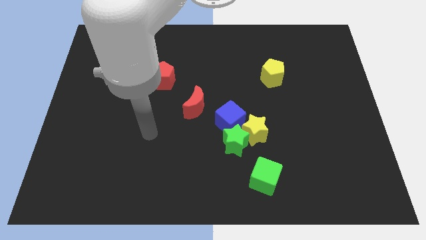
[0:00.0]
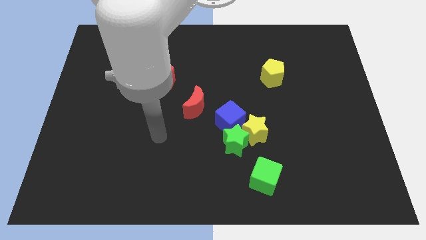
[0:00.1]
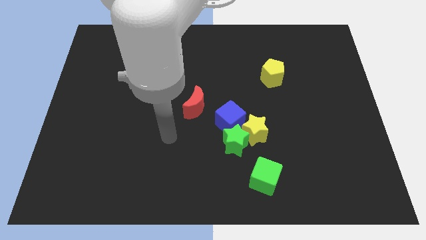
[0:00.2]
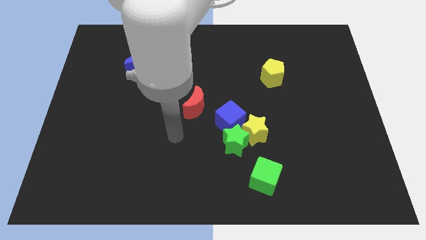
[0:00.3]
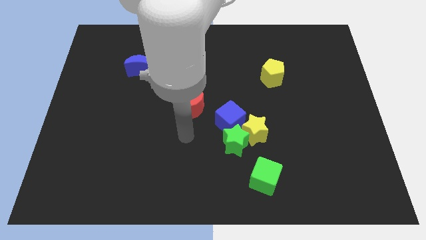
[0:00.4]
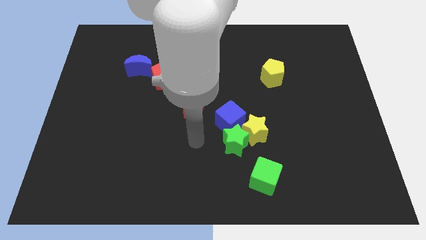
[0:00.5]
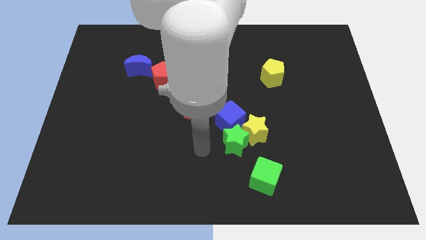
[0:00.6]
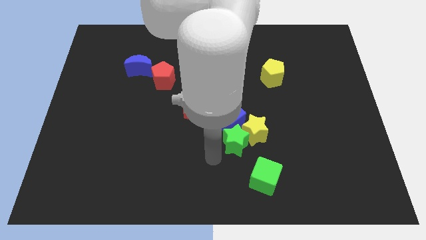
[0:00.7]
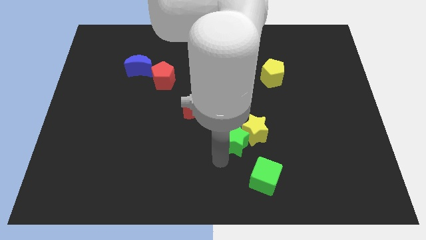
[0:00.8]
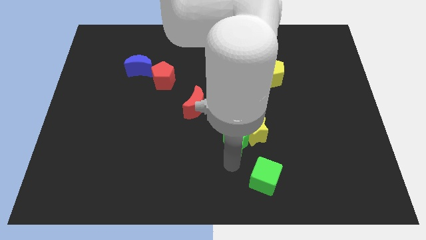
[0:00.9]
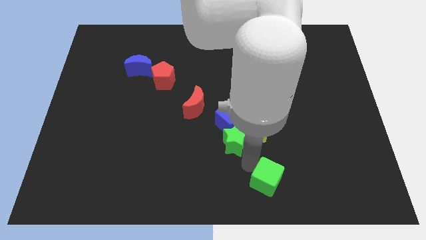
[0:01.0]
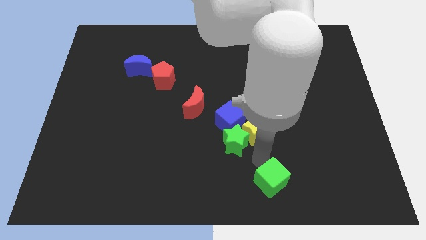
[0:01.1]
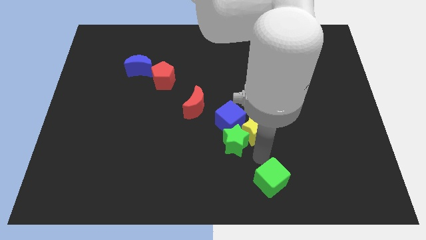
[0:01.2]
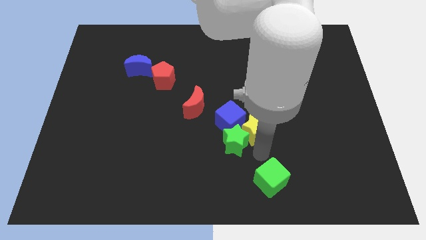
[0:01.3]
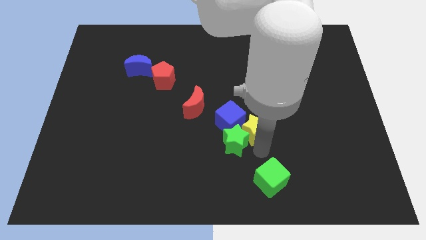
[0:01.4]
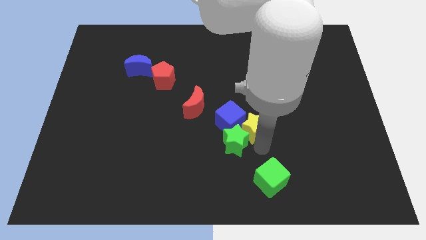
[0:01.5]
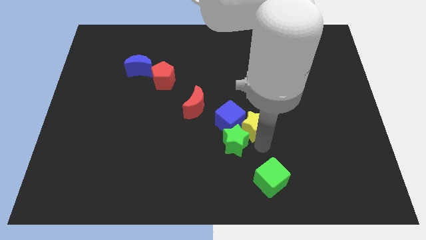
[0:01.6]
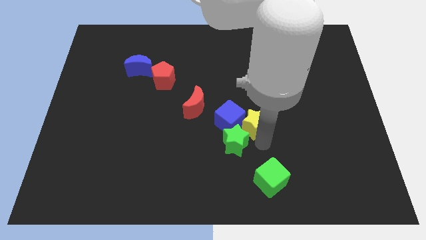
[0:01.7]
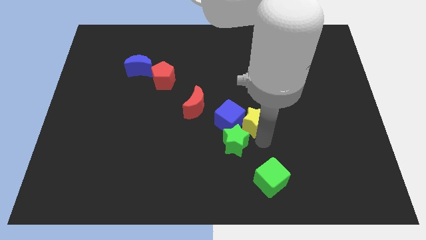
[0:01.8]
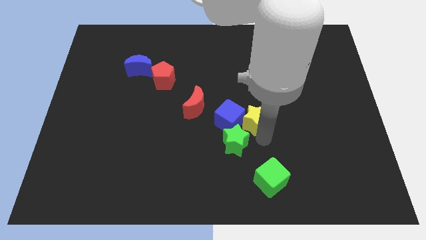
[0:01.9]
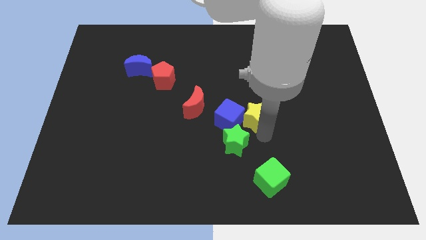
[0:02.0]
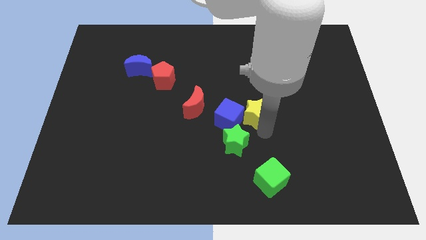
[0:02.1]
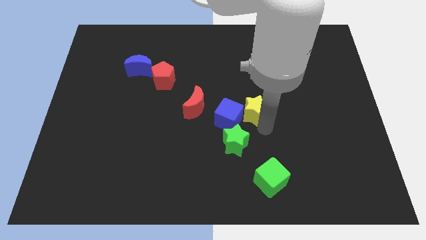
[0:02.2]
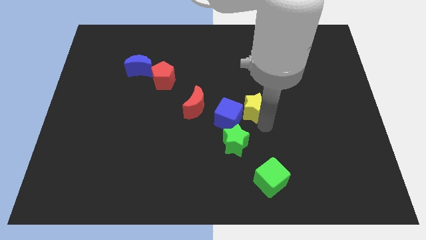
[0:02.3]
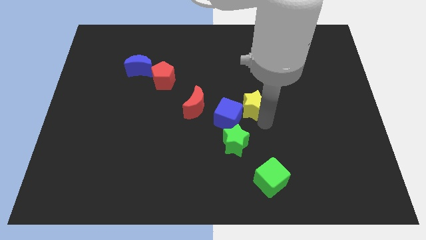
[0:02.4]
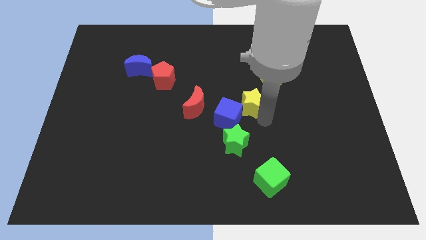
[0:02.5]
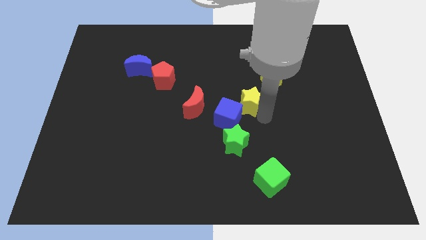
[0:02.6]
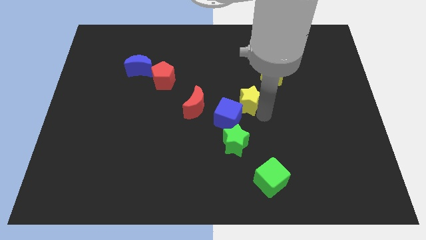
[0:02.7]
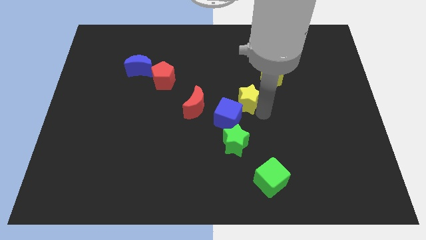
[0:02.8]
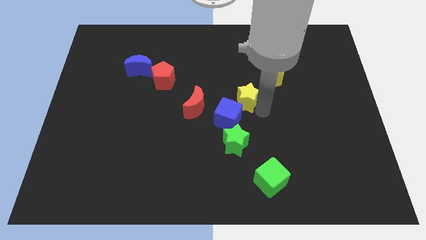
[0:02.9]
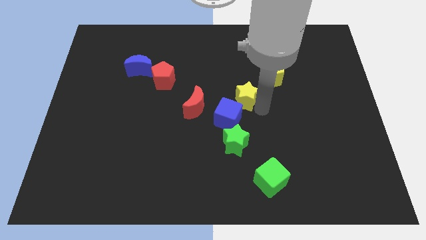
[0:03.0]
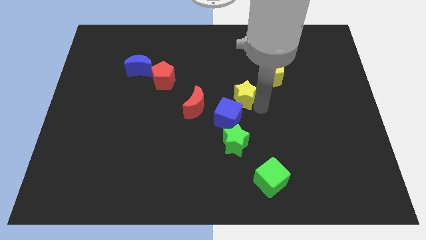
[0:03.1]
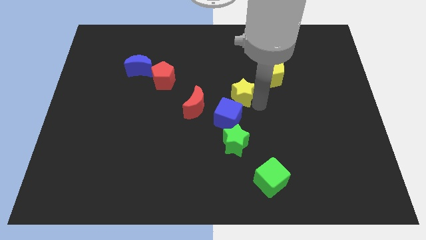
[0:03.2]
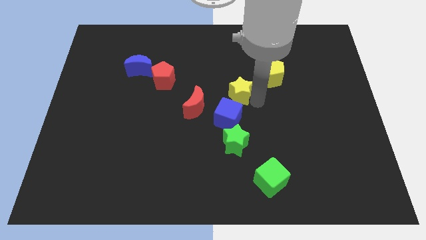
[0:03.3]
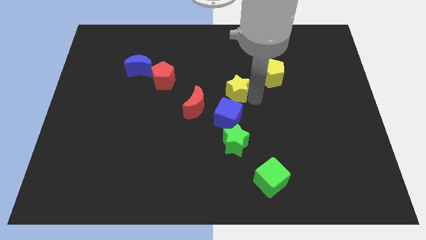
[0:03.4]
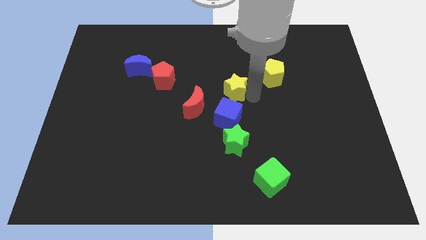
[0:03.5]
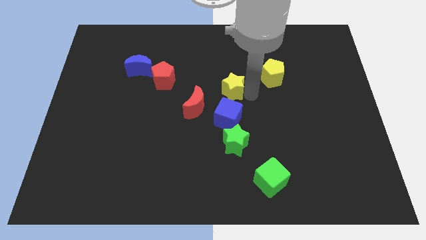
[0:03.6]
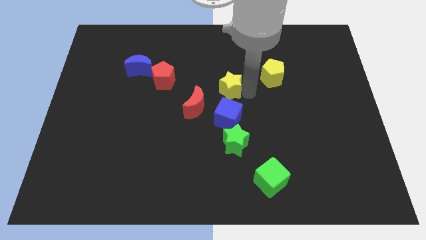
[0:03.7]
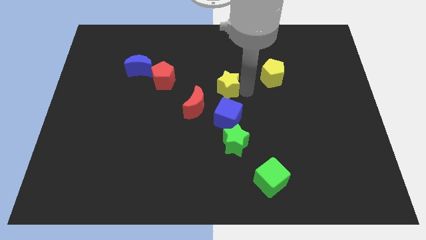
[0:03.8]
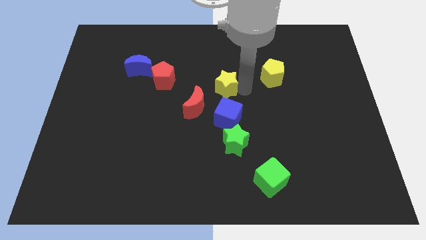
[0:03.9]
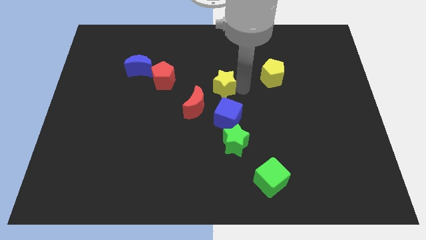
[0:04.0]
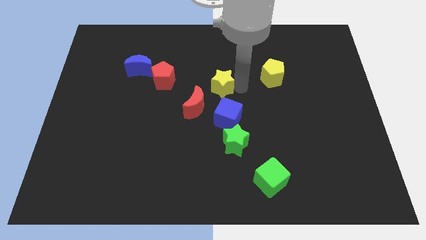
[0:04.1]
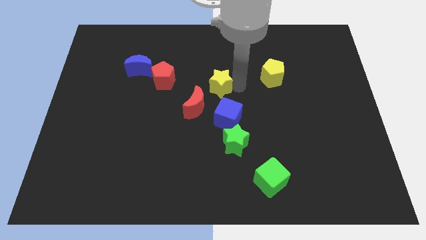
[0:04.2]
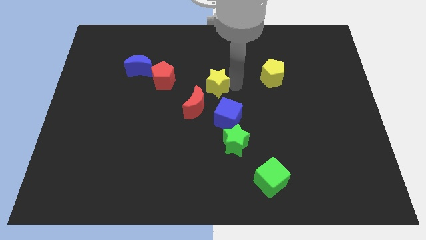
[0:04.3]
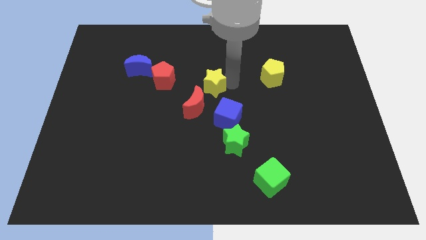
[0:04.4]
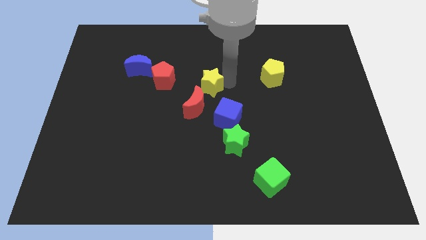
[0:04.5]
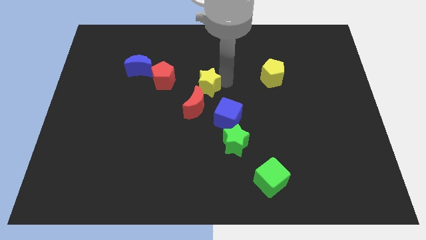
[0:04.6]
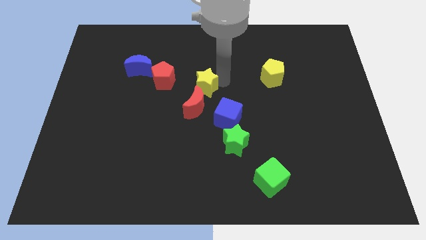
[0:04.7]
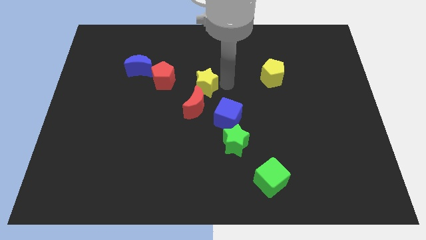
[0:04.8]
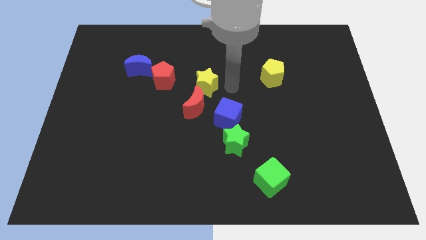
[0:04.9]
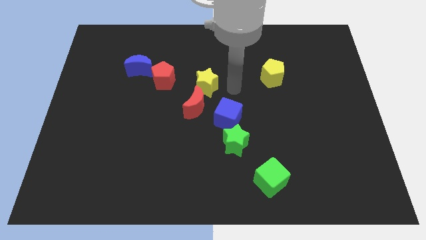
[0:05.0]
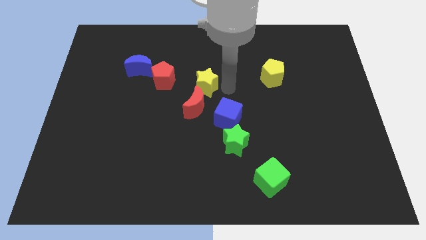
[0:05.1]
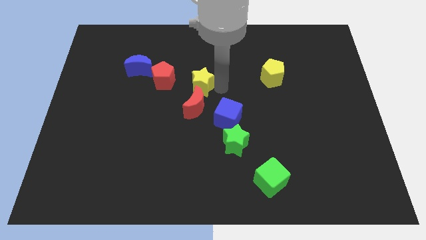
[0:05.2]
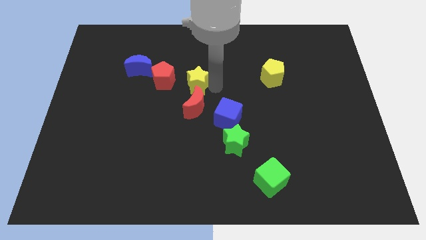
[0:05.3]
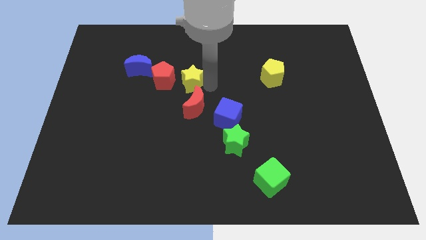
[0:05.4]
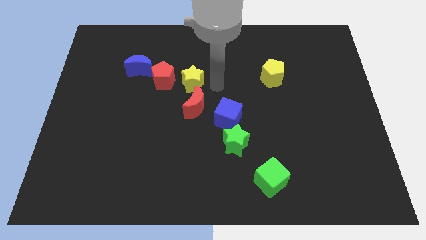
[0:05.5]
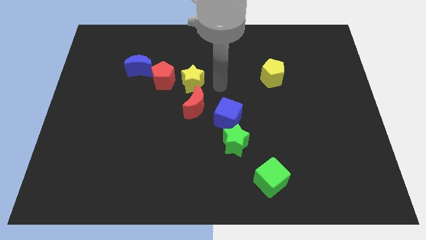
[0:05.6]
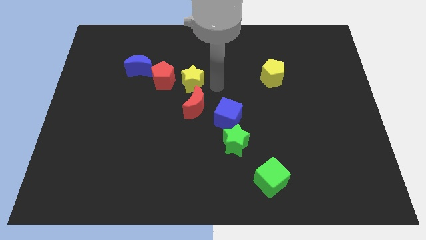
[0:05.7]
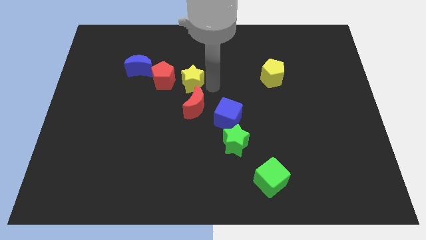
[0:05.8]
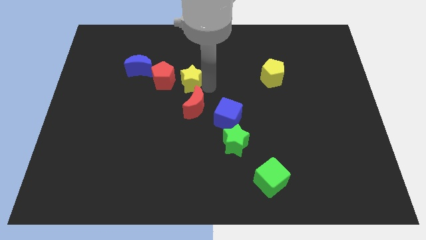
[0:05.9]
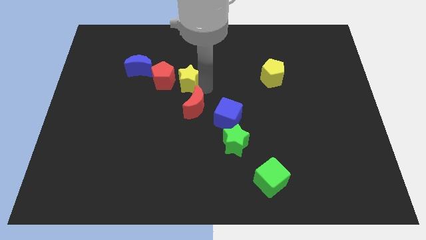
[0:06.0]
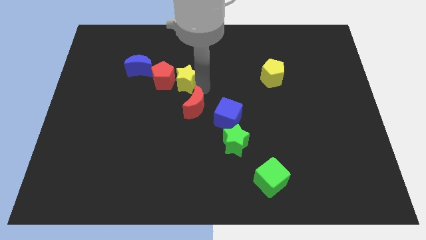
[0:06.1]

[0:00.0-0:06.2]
move the yellow star to the red pentagon

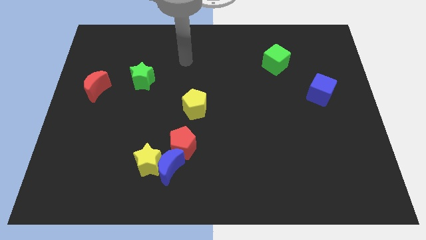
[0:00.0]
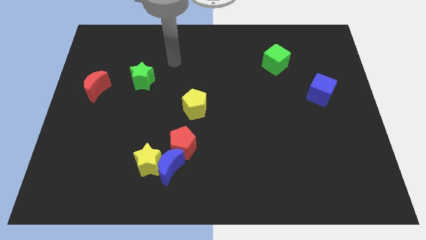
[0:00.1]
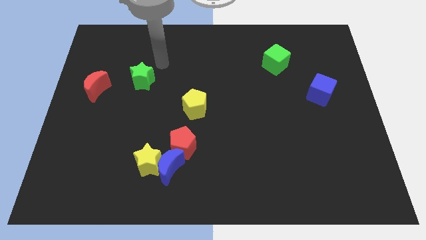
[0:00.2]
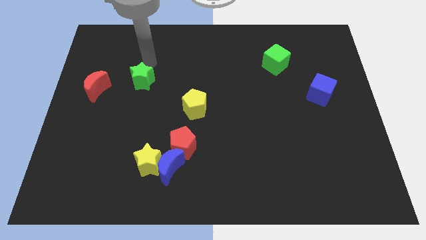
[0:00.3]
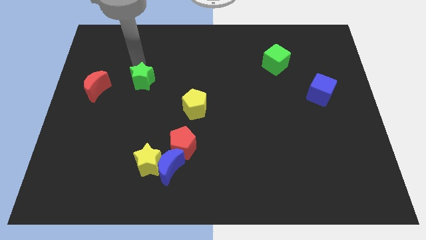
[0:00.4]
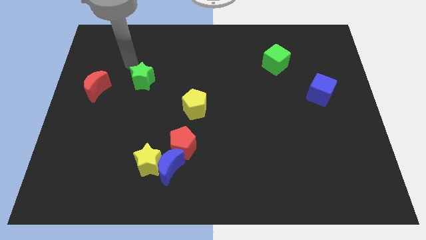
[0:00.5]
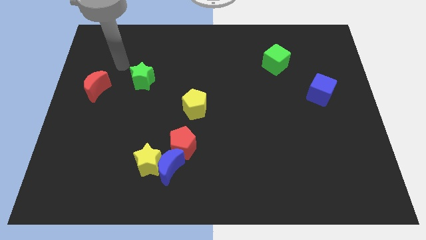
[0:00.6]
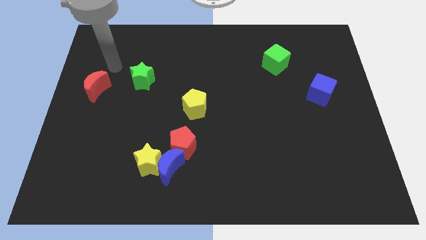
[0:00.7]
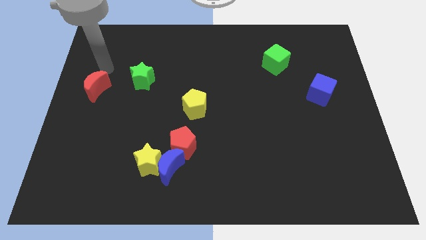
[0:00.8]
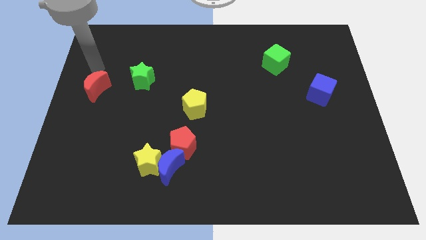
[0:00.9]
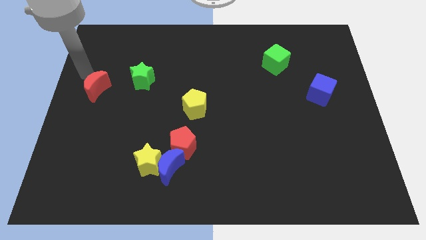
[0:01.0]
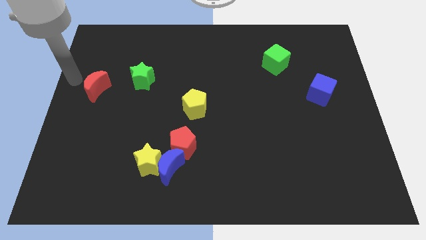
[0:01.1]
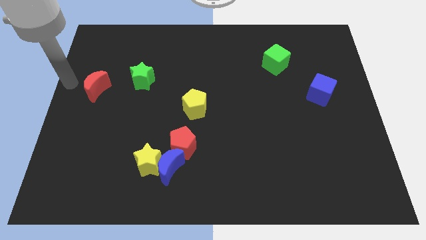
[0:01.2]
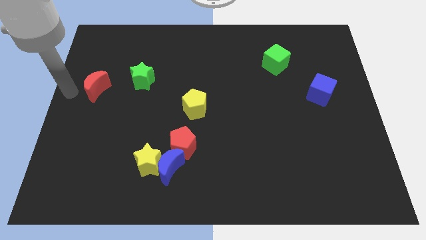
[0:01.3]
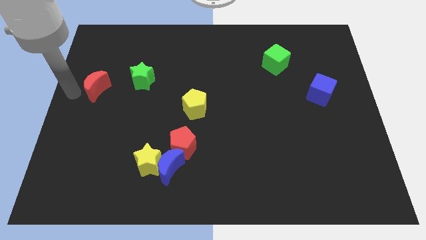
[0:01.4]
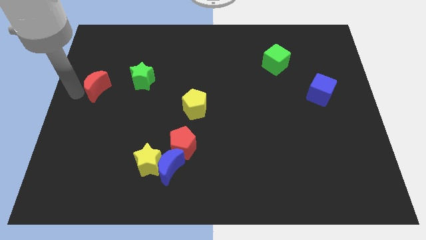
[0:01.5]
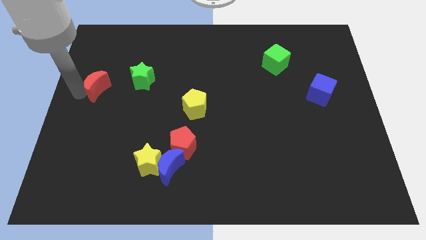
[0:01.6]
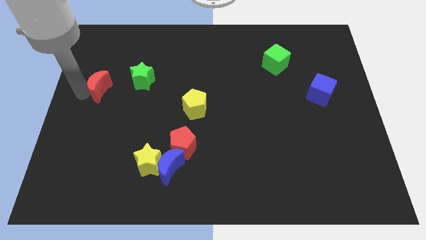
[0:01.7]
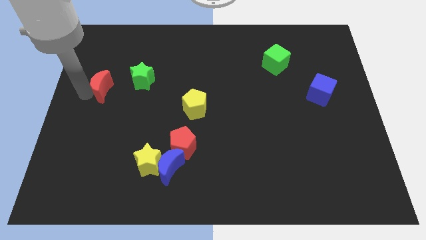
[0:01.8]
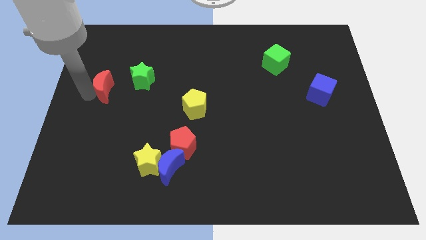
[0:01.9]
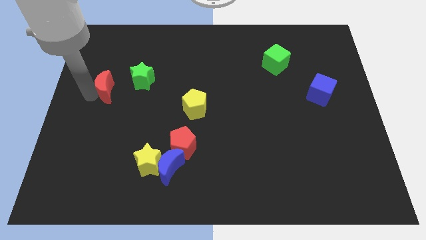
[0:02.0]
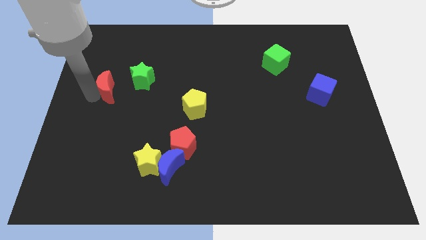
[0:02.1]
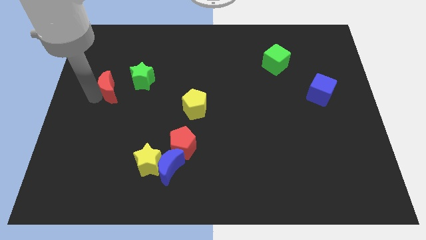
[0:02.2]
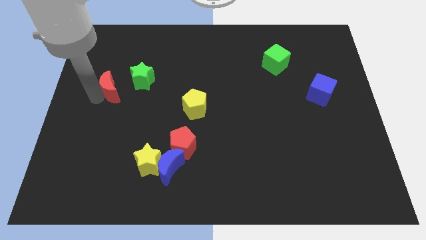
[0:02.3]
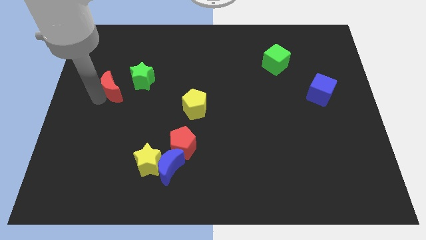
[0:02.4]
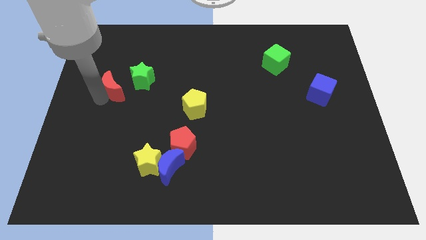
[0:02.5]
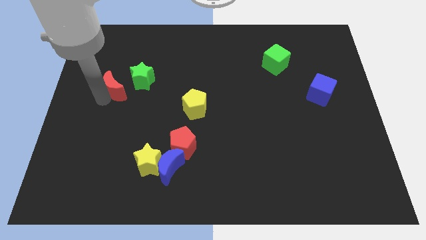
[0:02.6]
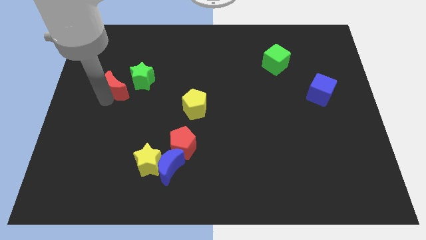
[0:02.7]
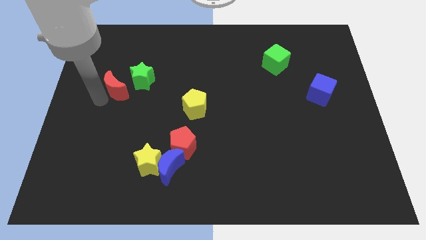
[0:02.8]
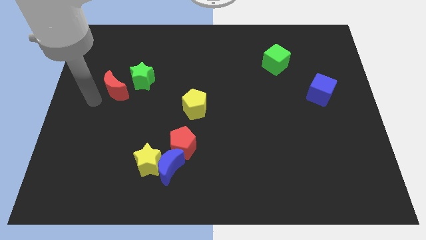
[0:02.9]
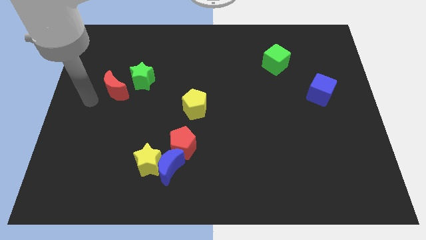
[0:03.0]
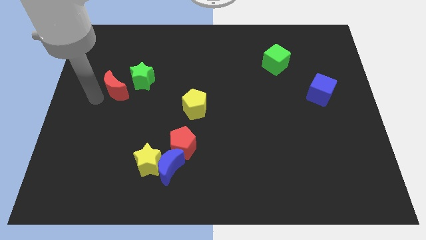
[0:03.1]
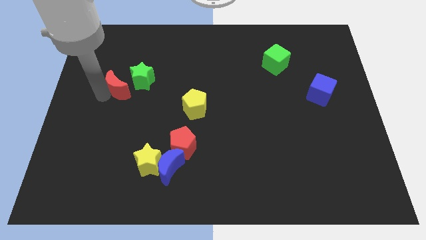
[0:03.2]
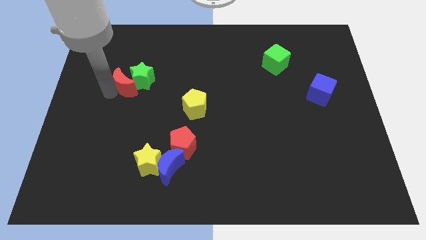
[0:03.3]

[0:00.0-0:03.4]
push the red moon to the green star
